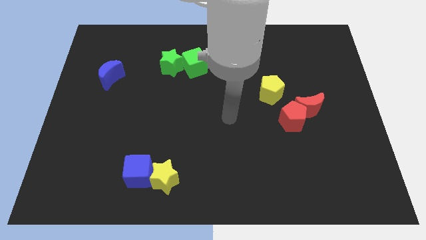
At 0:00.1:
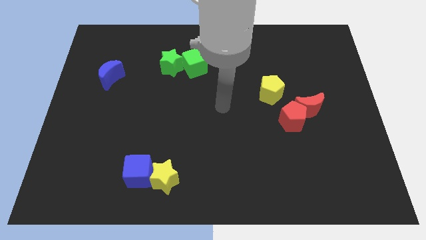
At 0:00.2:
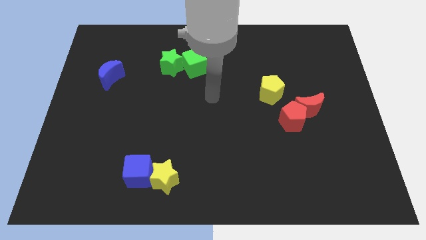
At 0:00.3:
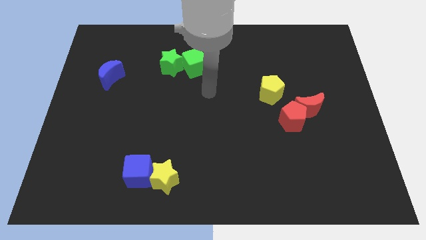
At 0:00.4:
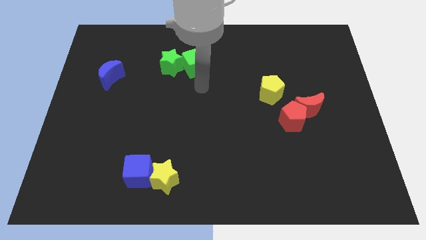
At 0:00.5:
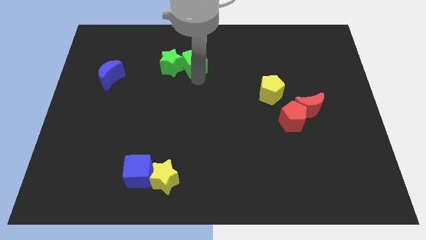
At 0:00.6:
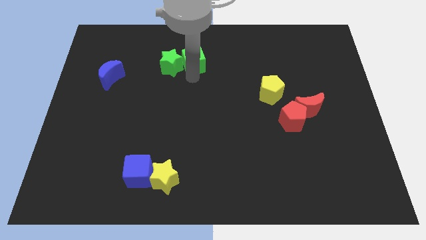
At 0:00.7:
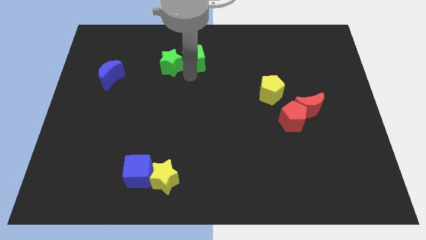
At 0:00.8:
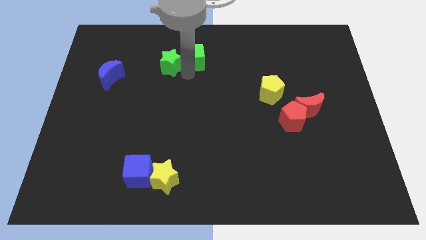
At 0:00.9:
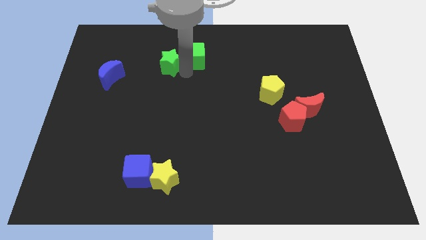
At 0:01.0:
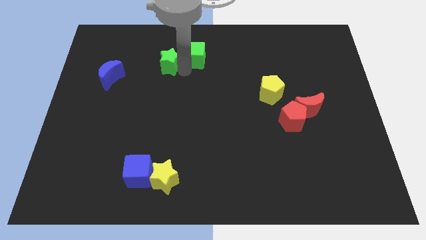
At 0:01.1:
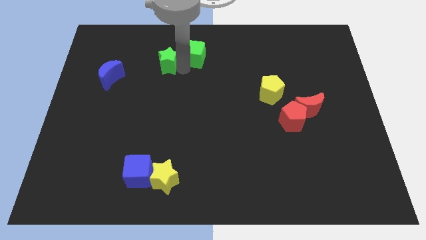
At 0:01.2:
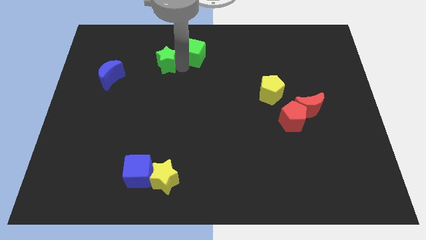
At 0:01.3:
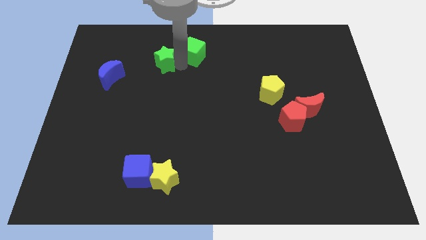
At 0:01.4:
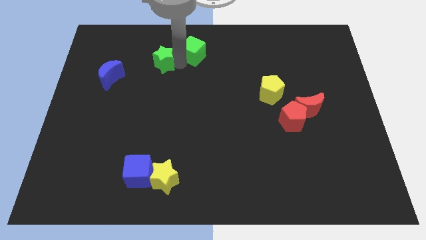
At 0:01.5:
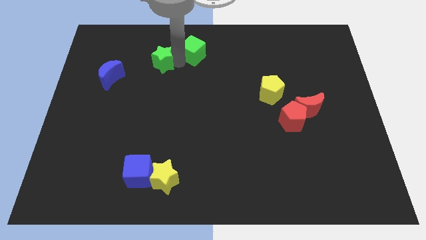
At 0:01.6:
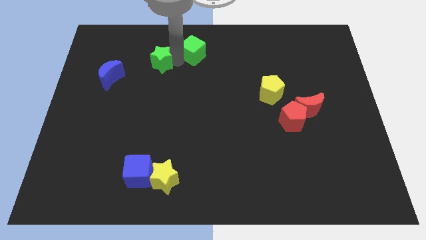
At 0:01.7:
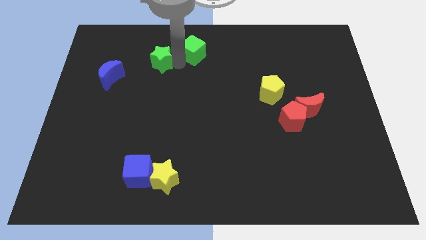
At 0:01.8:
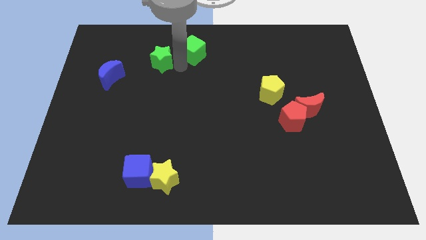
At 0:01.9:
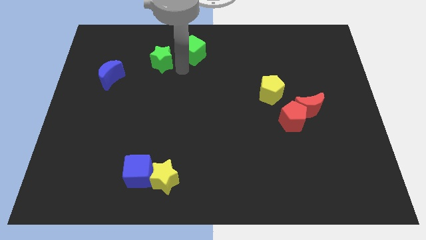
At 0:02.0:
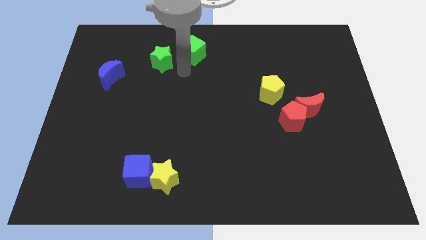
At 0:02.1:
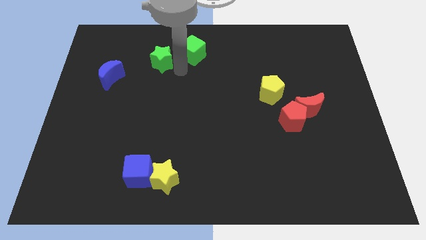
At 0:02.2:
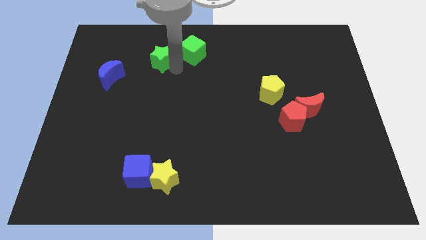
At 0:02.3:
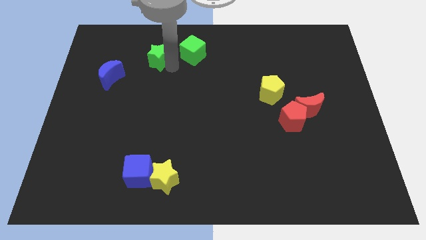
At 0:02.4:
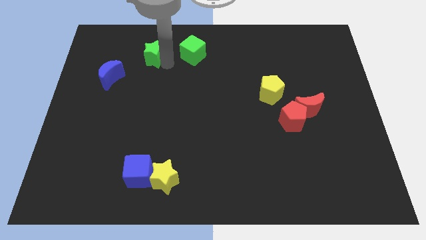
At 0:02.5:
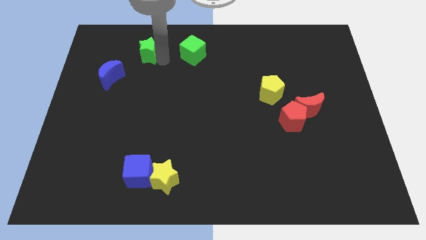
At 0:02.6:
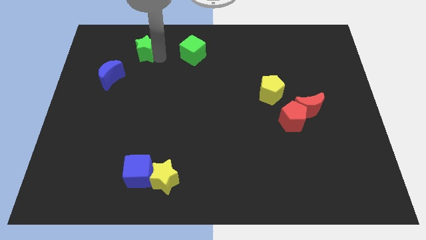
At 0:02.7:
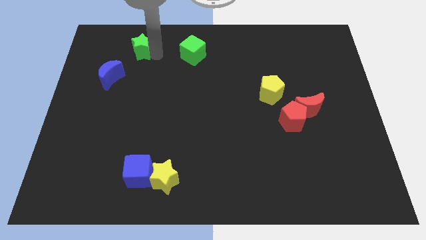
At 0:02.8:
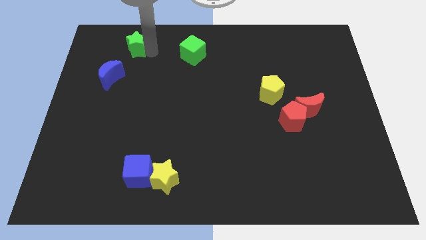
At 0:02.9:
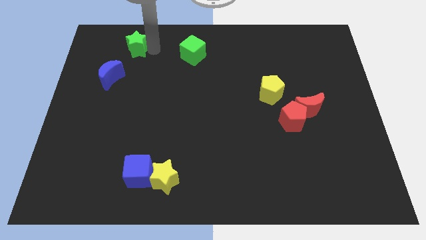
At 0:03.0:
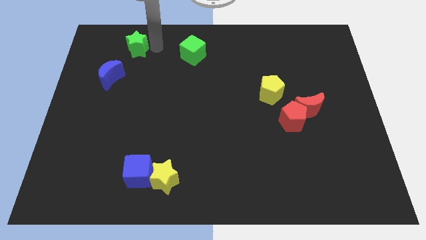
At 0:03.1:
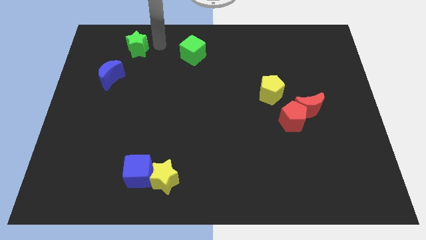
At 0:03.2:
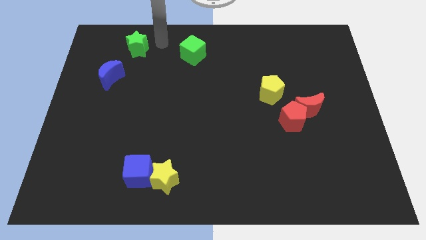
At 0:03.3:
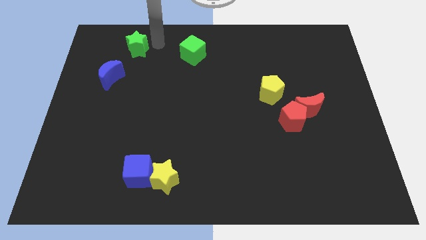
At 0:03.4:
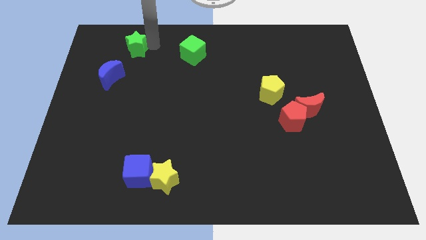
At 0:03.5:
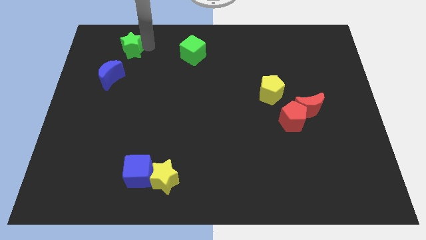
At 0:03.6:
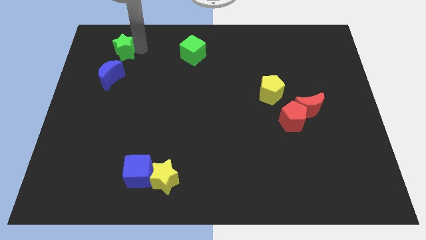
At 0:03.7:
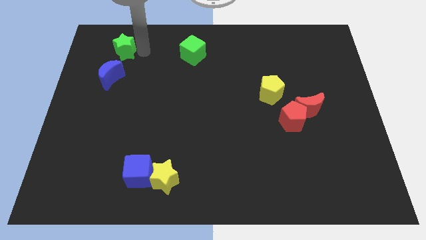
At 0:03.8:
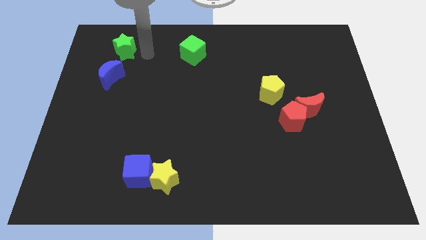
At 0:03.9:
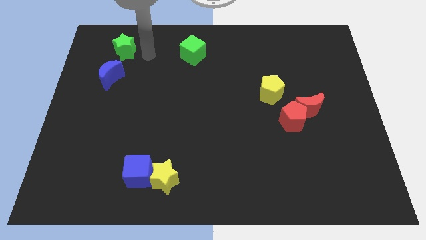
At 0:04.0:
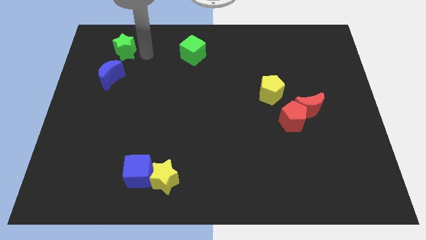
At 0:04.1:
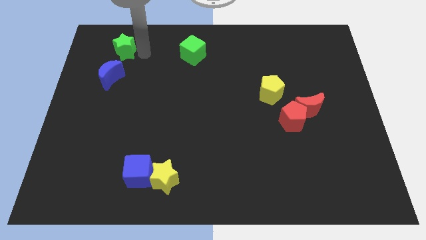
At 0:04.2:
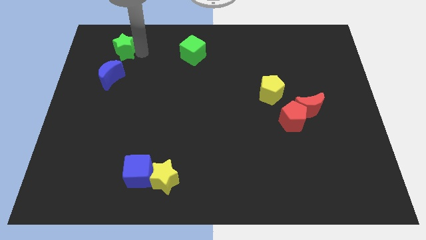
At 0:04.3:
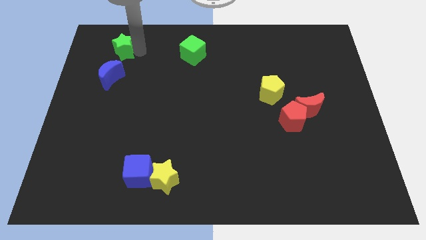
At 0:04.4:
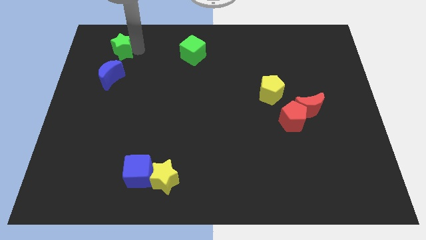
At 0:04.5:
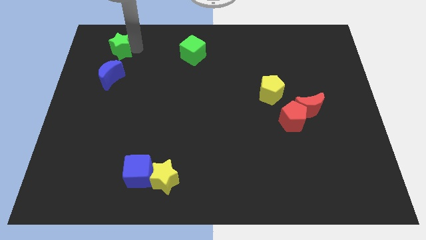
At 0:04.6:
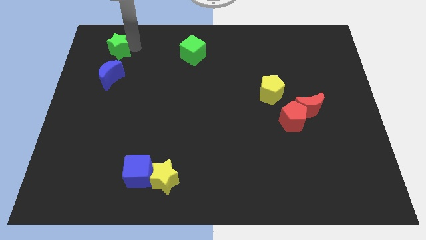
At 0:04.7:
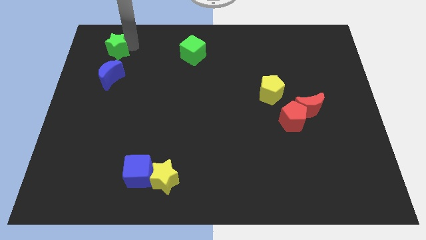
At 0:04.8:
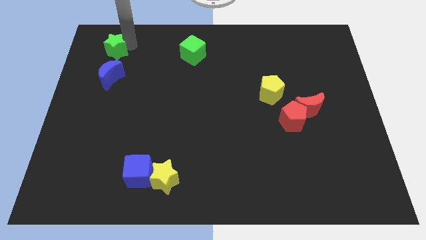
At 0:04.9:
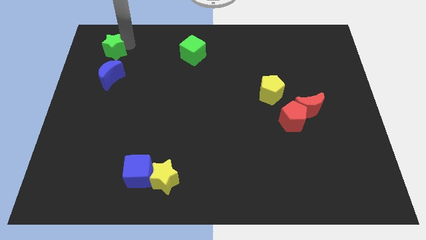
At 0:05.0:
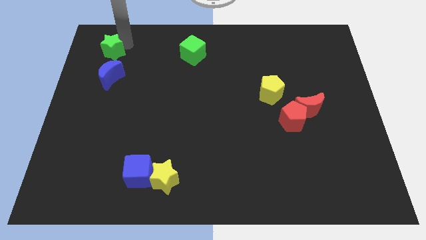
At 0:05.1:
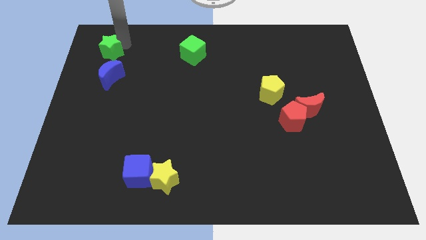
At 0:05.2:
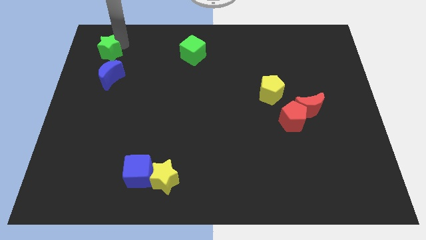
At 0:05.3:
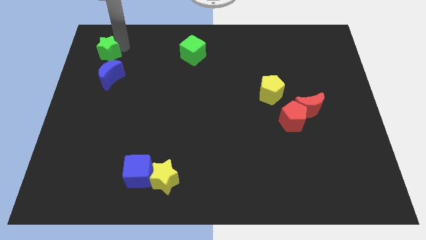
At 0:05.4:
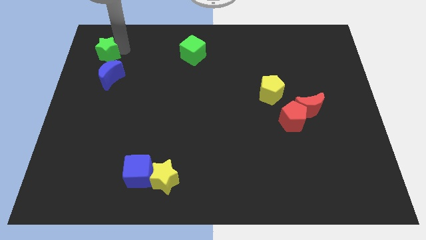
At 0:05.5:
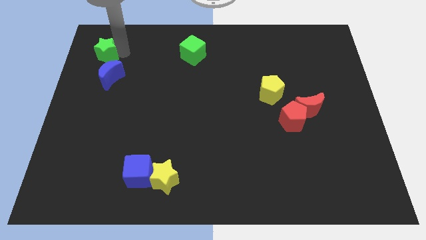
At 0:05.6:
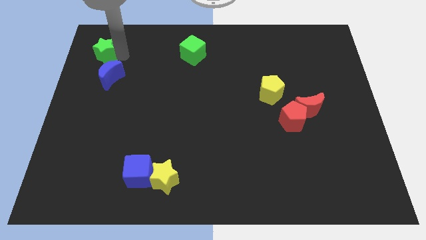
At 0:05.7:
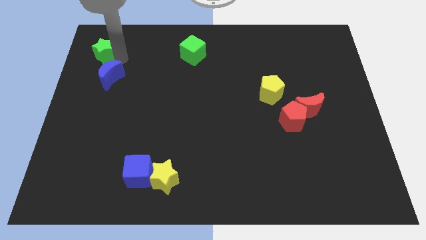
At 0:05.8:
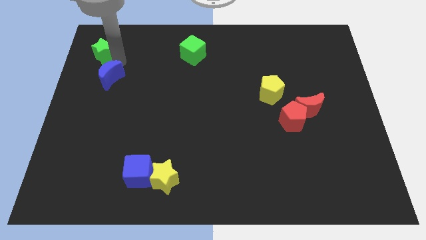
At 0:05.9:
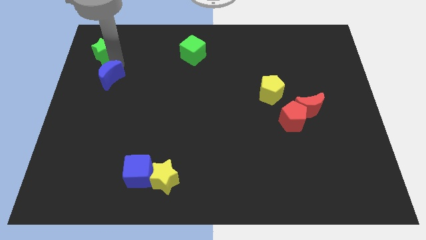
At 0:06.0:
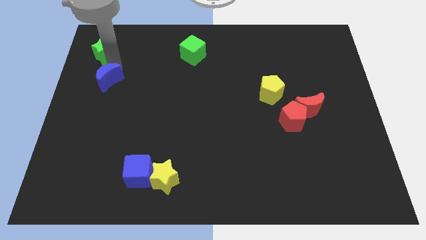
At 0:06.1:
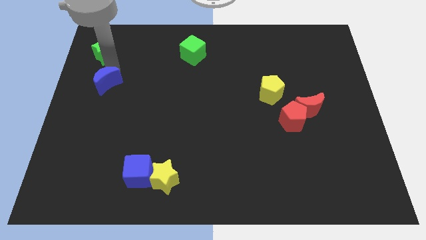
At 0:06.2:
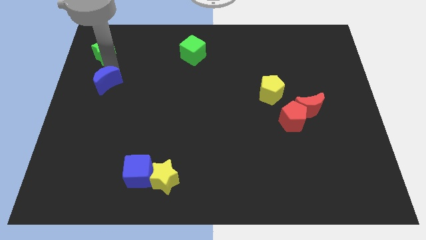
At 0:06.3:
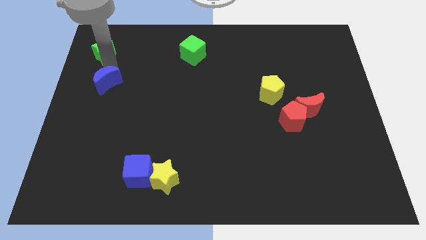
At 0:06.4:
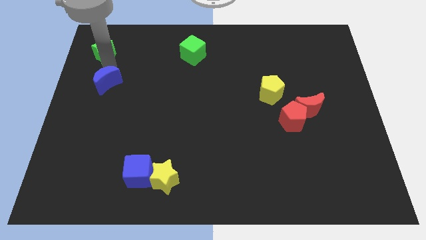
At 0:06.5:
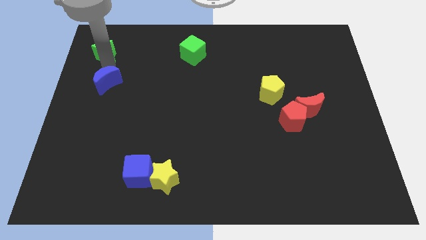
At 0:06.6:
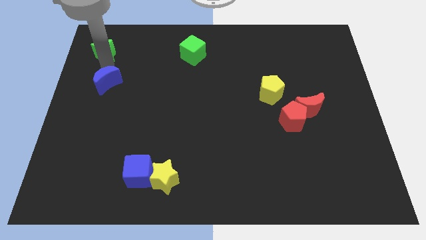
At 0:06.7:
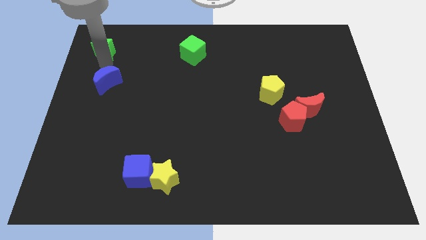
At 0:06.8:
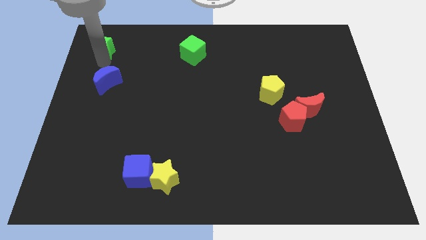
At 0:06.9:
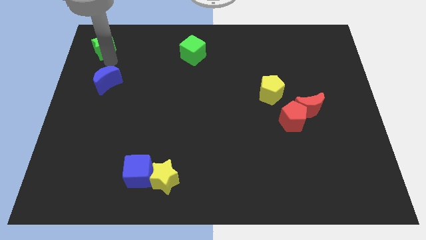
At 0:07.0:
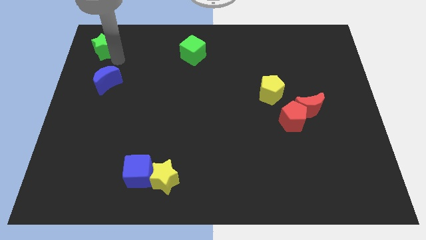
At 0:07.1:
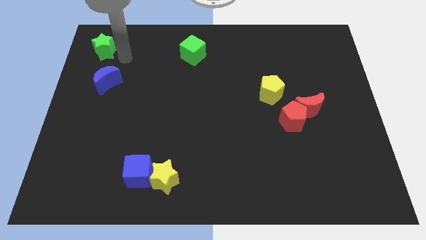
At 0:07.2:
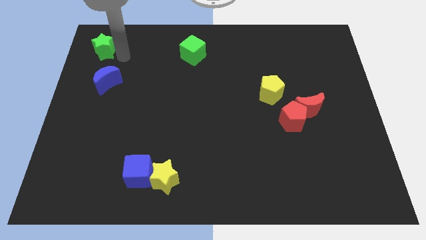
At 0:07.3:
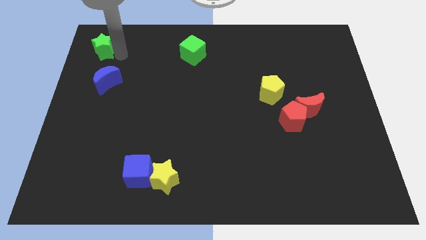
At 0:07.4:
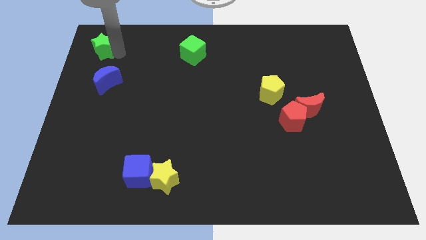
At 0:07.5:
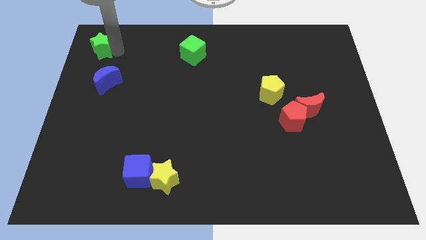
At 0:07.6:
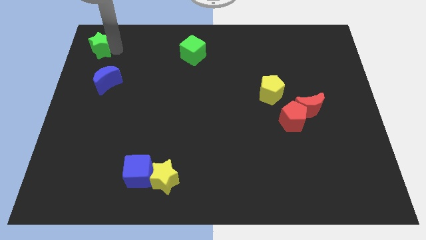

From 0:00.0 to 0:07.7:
move the green star to the top left
